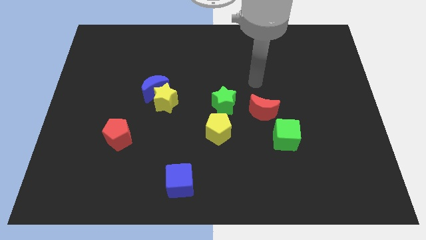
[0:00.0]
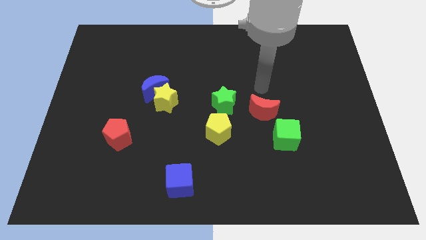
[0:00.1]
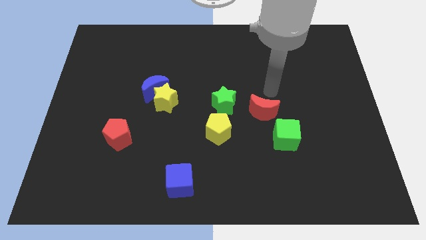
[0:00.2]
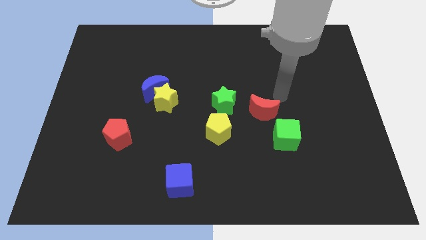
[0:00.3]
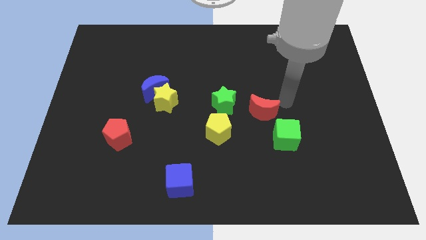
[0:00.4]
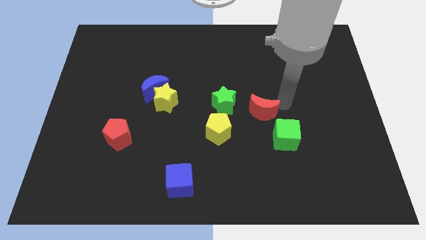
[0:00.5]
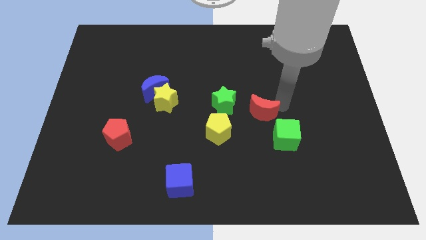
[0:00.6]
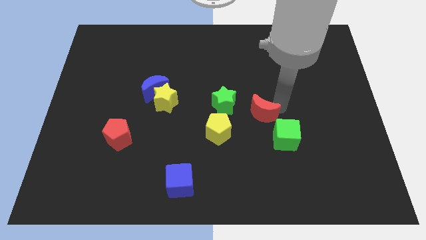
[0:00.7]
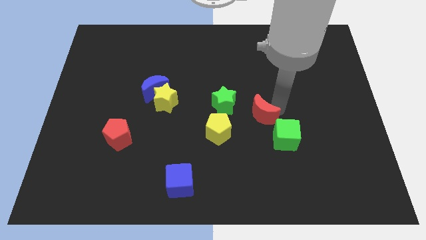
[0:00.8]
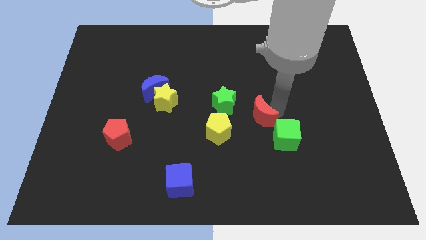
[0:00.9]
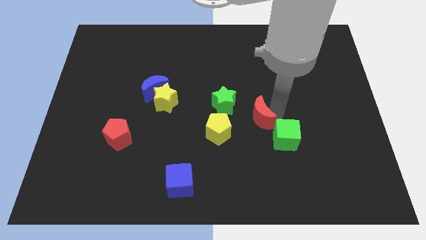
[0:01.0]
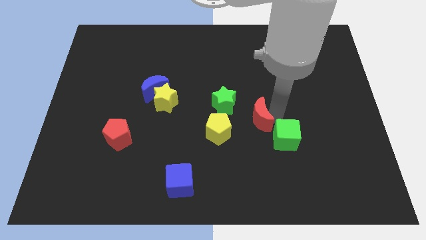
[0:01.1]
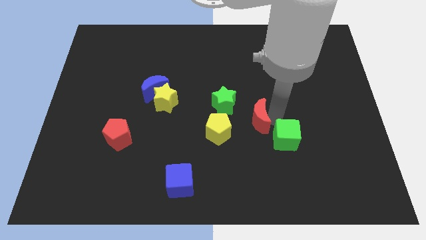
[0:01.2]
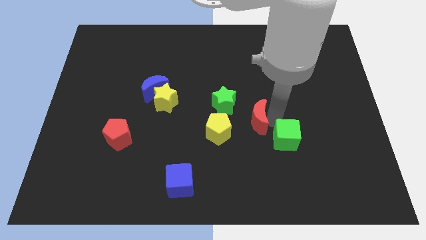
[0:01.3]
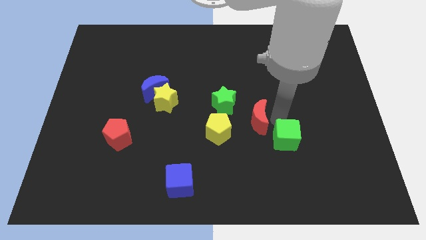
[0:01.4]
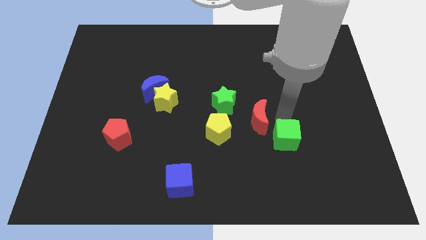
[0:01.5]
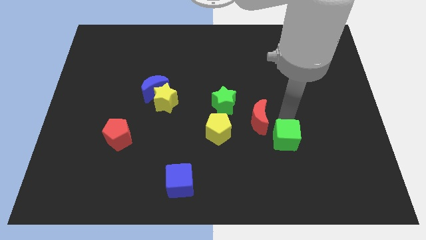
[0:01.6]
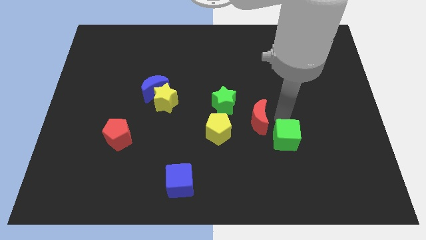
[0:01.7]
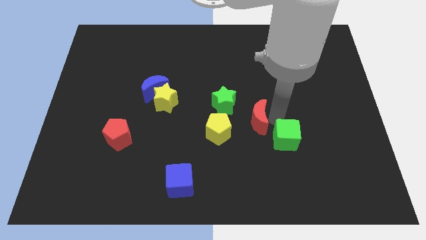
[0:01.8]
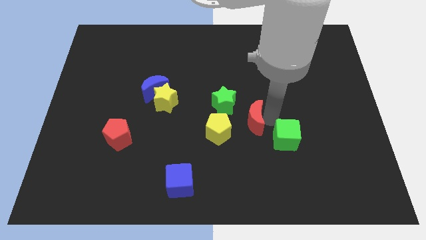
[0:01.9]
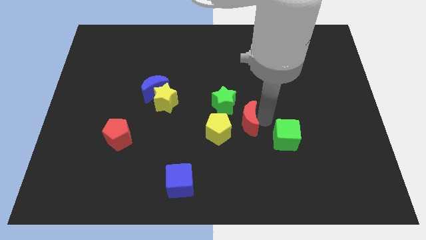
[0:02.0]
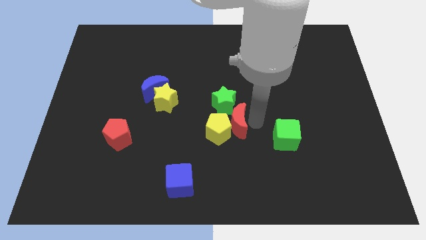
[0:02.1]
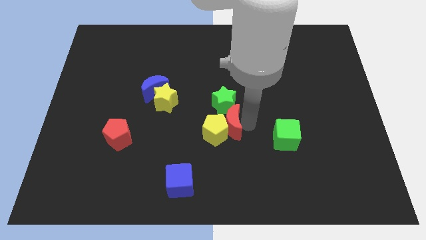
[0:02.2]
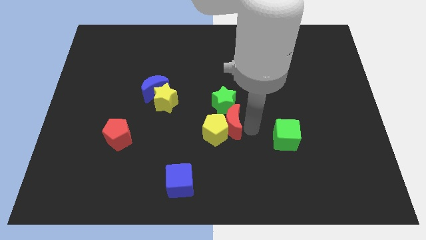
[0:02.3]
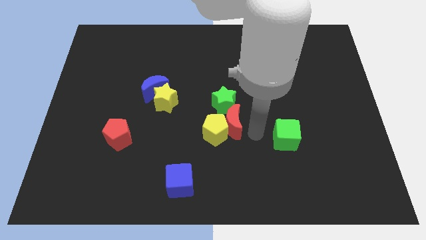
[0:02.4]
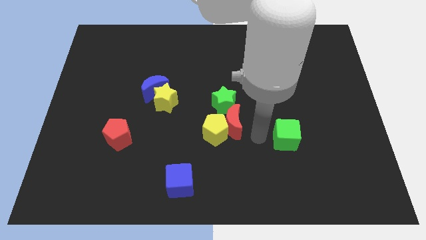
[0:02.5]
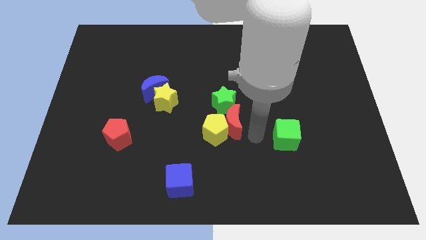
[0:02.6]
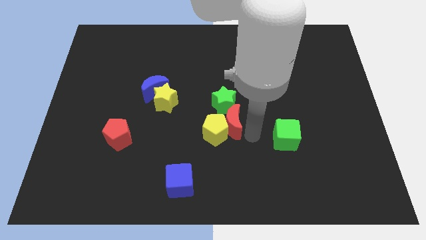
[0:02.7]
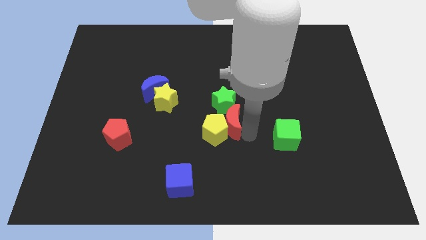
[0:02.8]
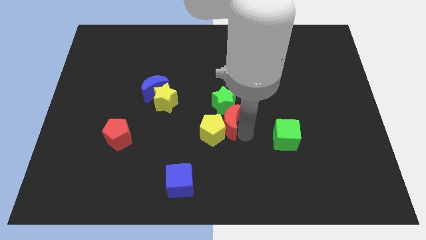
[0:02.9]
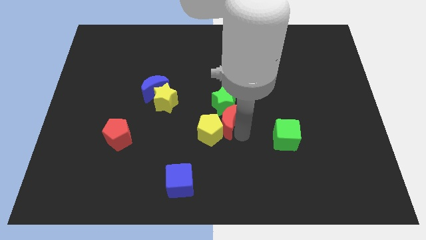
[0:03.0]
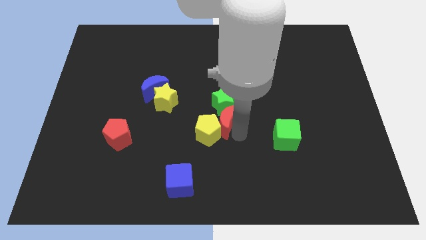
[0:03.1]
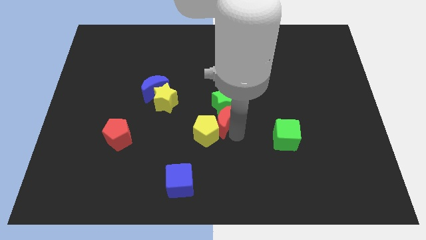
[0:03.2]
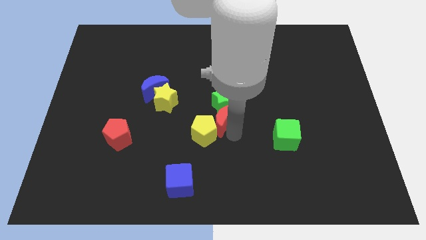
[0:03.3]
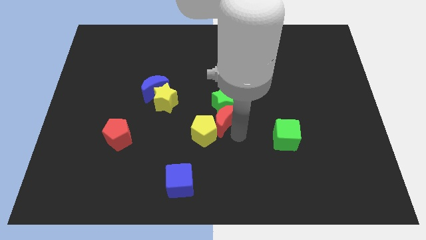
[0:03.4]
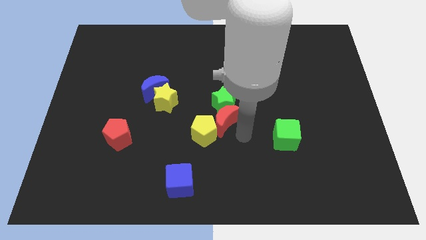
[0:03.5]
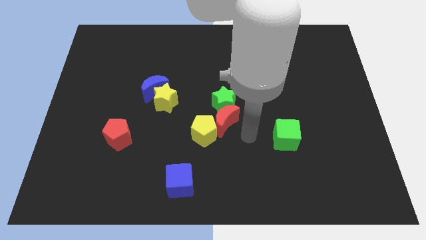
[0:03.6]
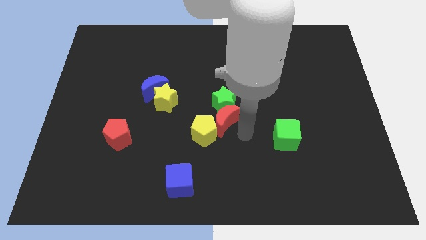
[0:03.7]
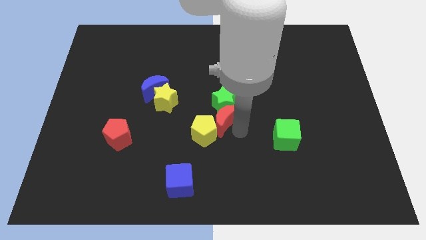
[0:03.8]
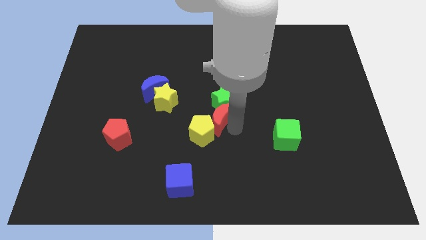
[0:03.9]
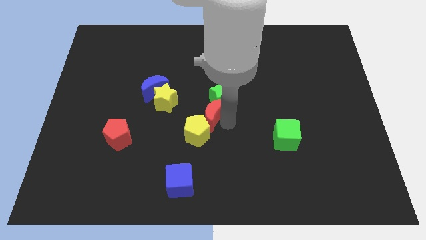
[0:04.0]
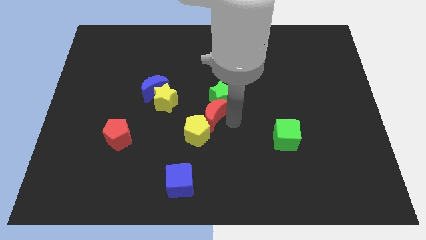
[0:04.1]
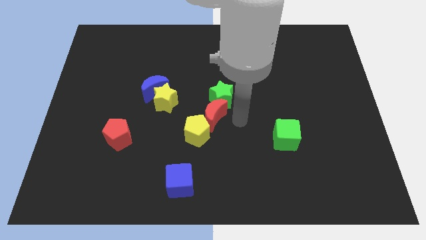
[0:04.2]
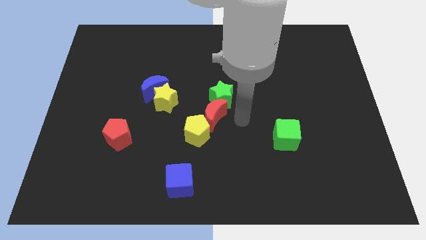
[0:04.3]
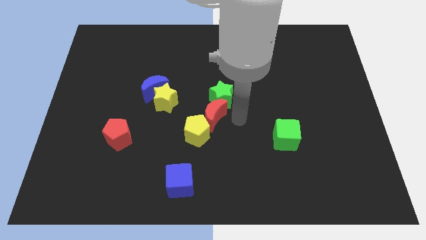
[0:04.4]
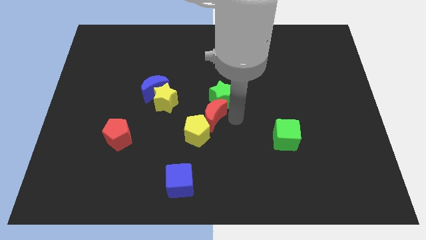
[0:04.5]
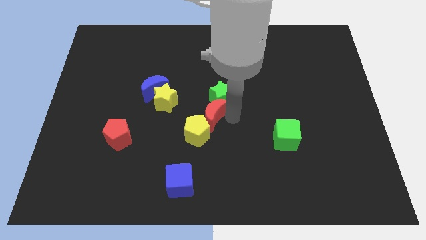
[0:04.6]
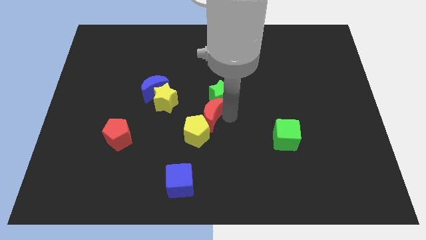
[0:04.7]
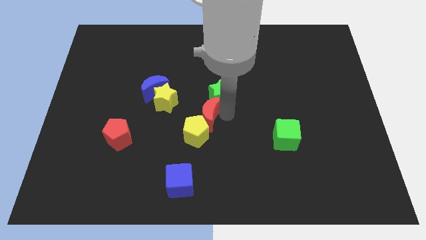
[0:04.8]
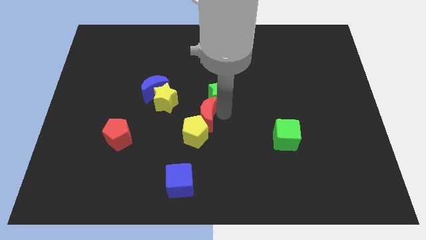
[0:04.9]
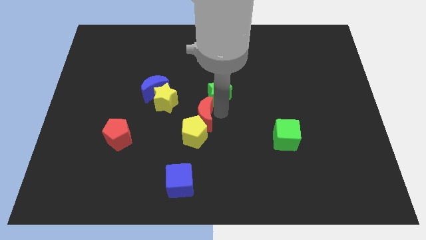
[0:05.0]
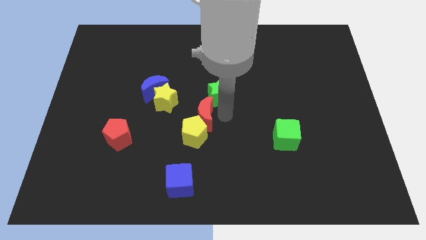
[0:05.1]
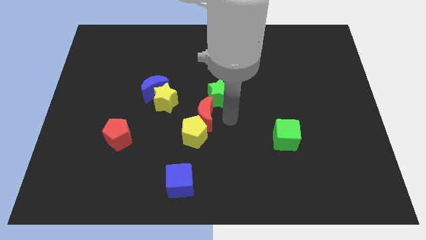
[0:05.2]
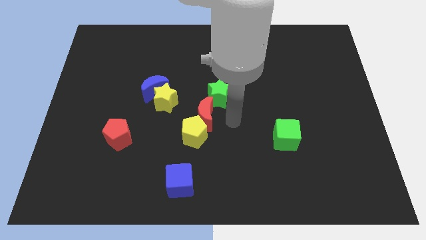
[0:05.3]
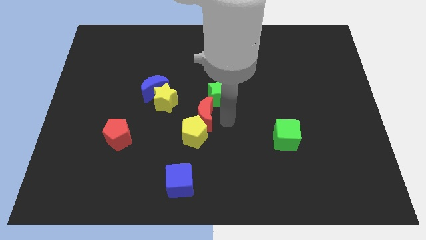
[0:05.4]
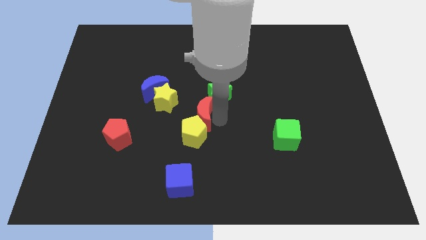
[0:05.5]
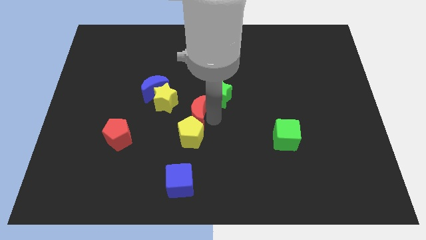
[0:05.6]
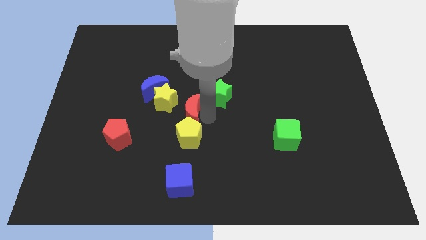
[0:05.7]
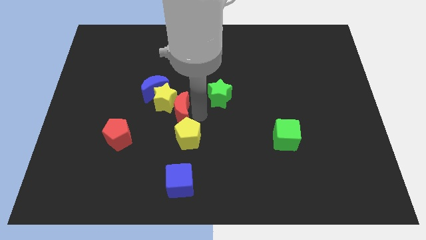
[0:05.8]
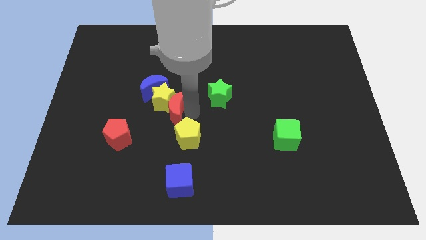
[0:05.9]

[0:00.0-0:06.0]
slide the red moon to the left

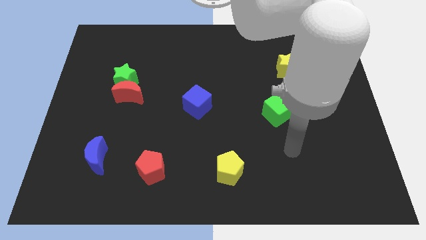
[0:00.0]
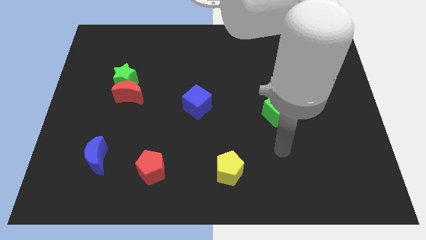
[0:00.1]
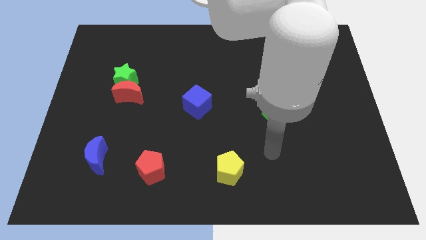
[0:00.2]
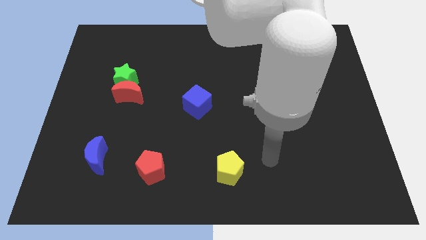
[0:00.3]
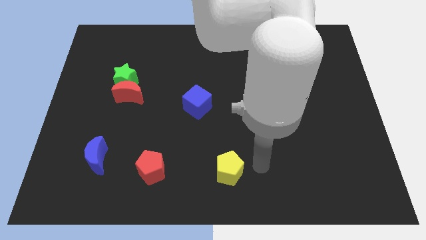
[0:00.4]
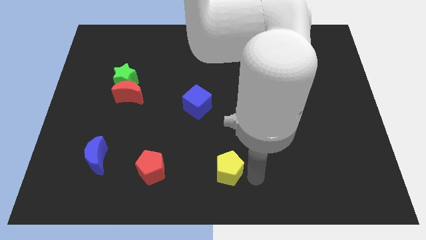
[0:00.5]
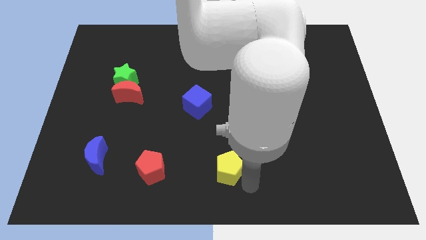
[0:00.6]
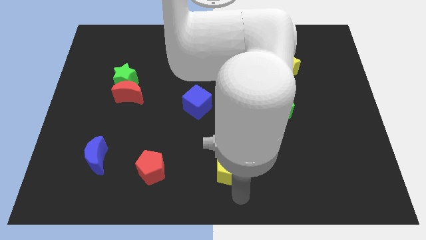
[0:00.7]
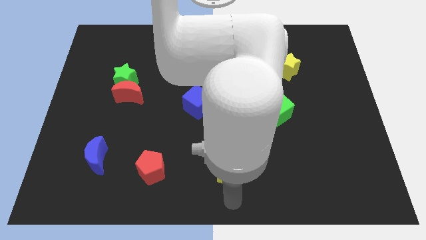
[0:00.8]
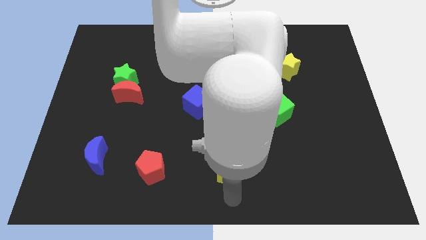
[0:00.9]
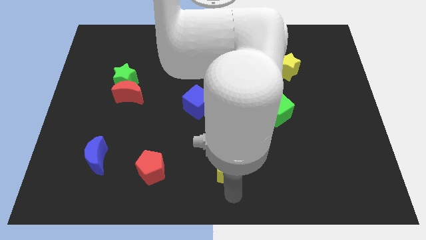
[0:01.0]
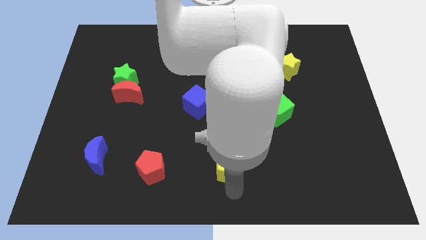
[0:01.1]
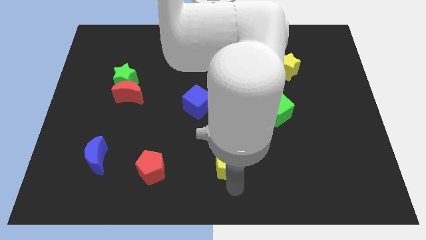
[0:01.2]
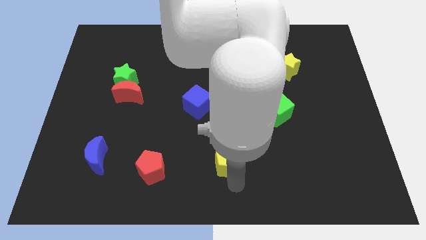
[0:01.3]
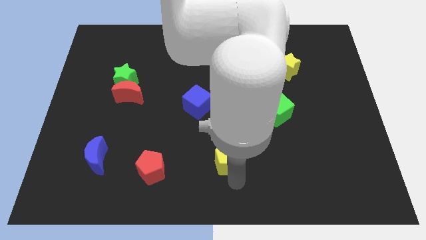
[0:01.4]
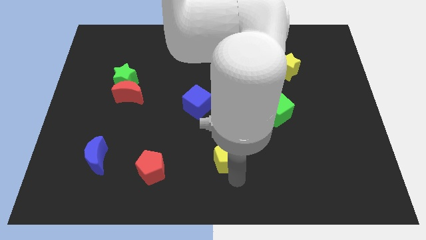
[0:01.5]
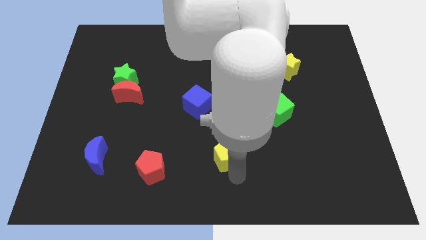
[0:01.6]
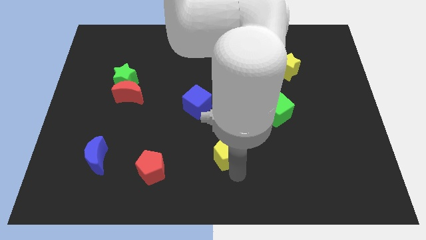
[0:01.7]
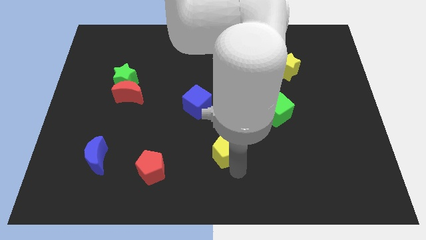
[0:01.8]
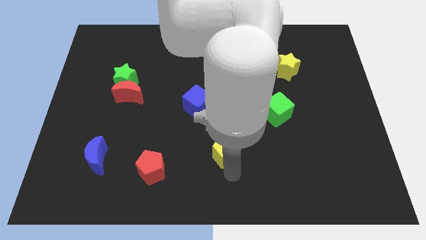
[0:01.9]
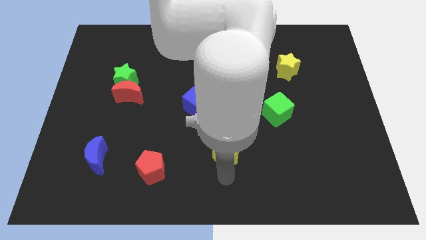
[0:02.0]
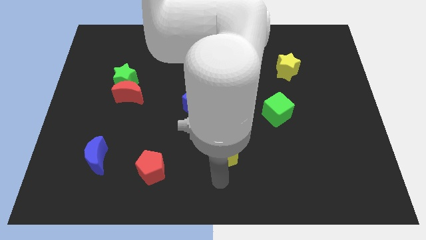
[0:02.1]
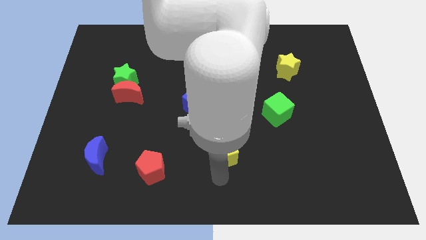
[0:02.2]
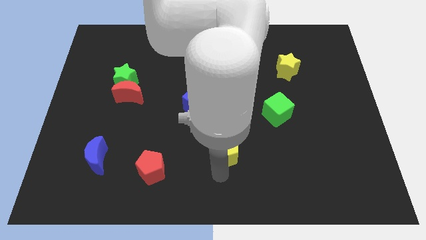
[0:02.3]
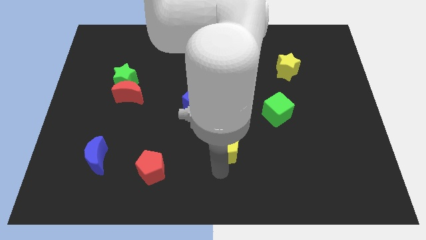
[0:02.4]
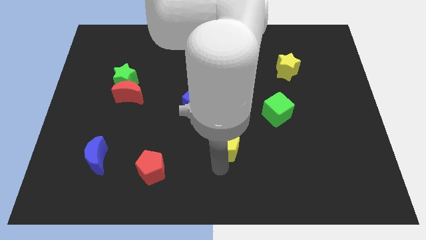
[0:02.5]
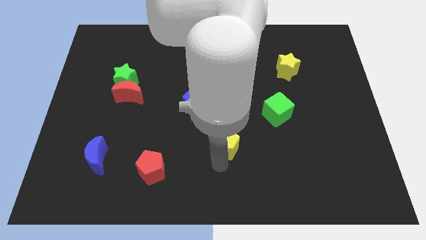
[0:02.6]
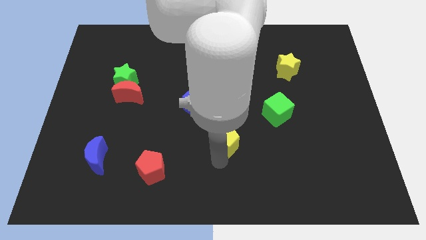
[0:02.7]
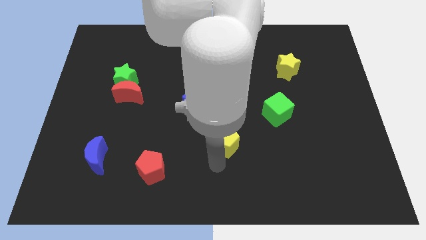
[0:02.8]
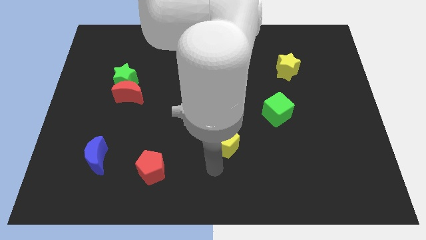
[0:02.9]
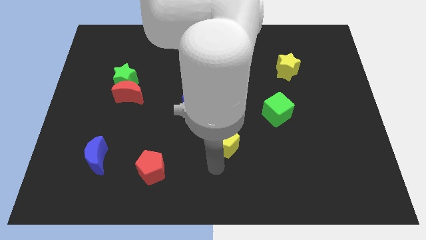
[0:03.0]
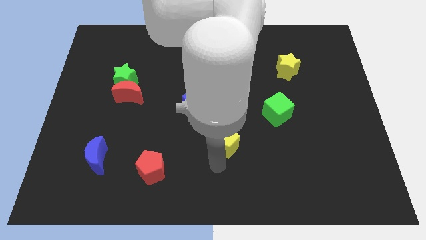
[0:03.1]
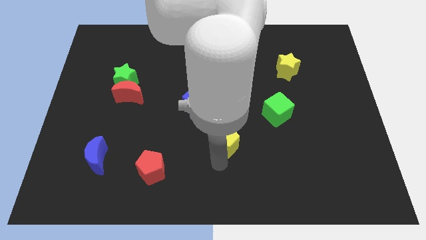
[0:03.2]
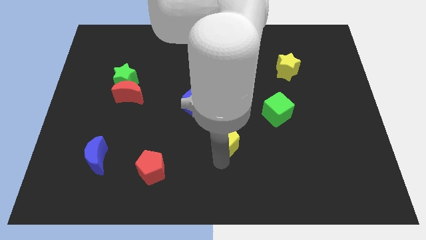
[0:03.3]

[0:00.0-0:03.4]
push the yellow pentagon slightly up
